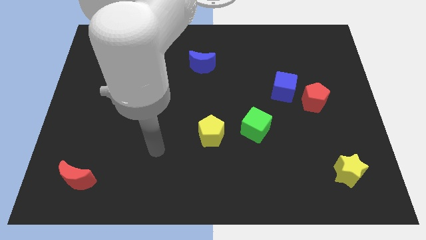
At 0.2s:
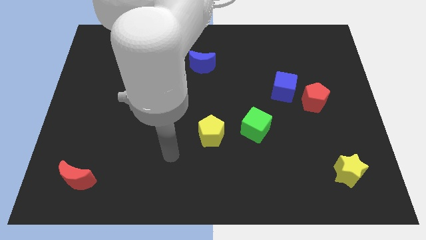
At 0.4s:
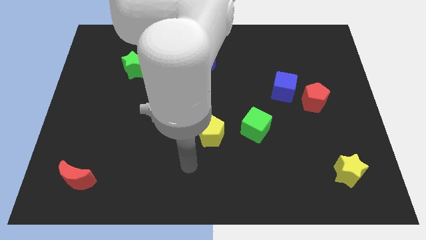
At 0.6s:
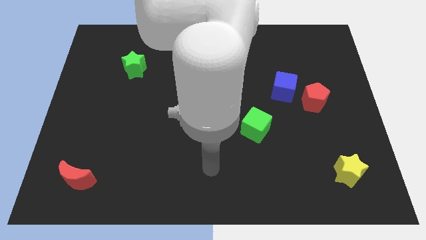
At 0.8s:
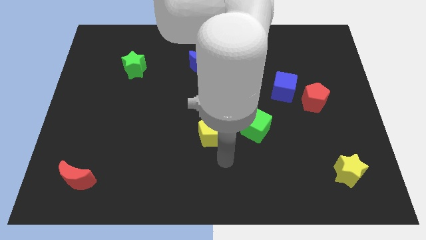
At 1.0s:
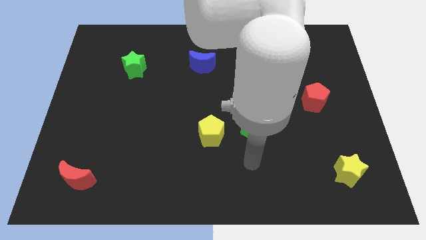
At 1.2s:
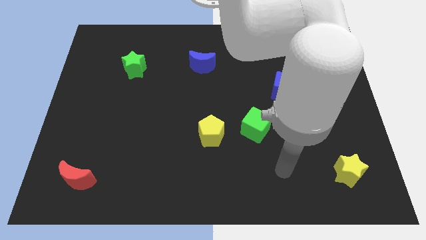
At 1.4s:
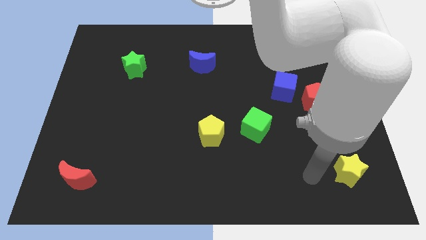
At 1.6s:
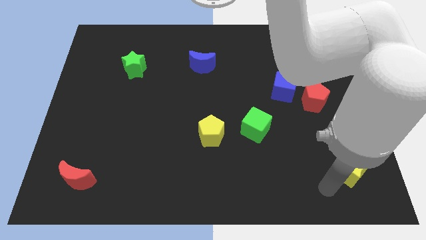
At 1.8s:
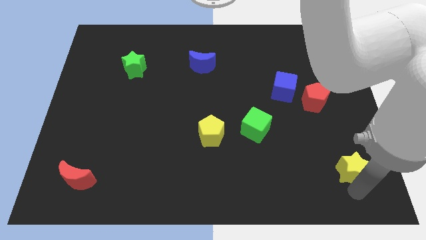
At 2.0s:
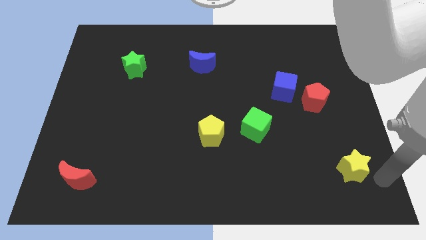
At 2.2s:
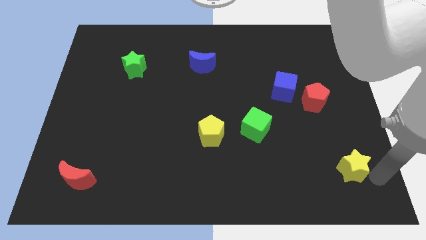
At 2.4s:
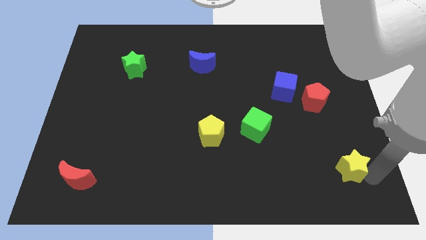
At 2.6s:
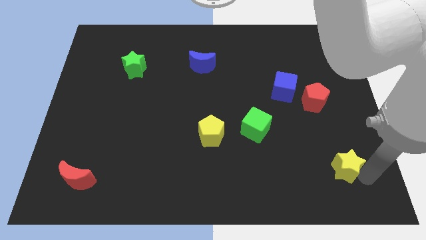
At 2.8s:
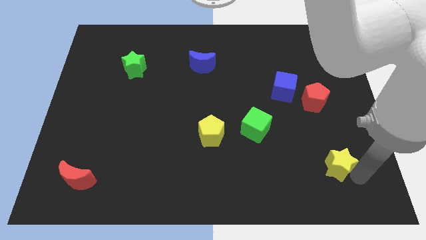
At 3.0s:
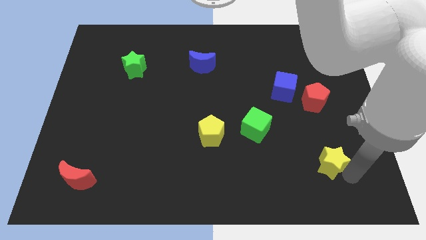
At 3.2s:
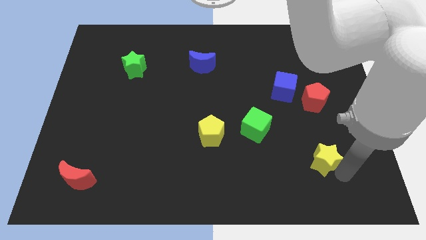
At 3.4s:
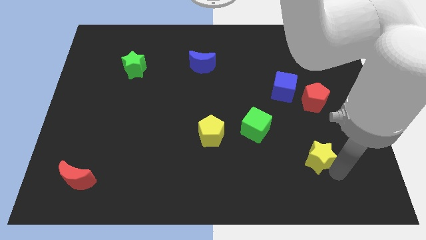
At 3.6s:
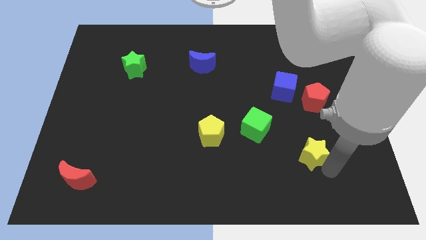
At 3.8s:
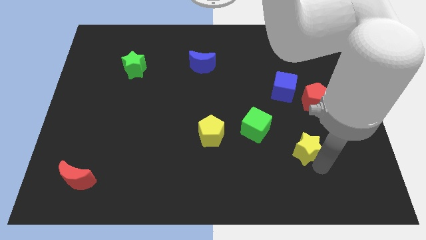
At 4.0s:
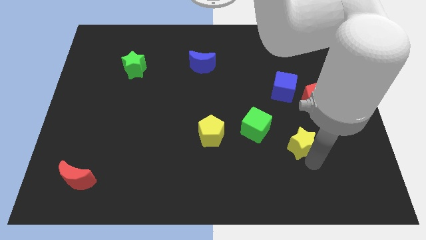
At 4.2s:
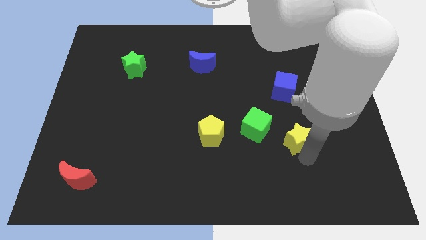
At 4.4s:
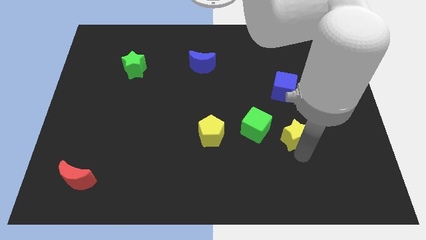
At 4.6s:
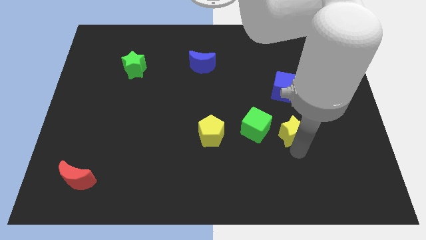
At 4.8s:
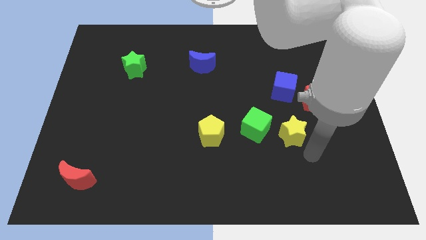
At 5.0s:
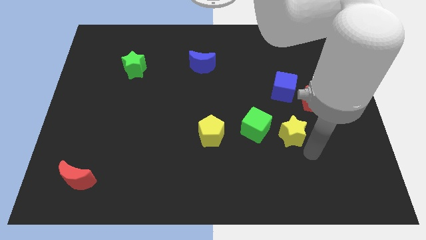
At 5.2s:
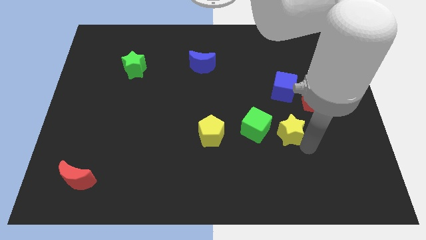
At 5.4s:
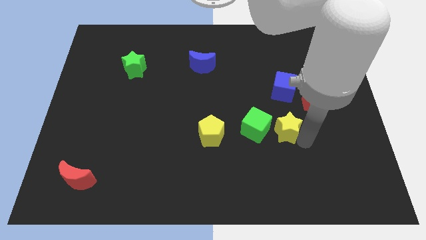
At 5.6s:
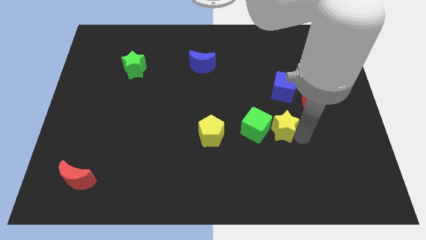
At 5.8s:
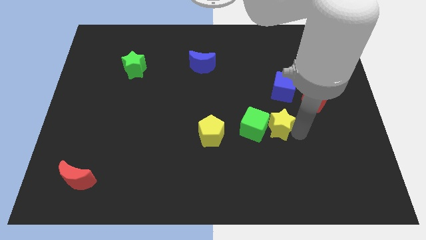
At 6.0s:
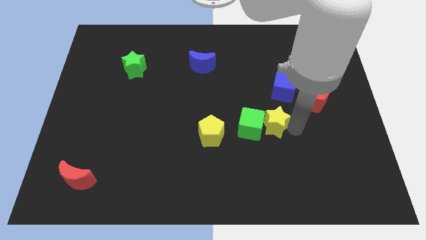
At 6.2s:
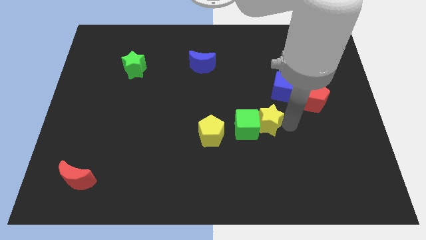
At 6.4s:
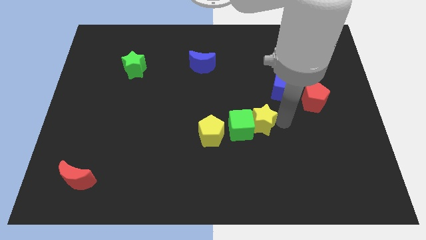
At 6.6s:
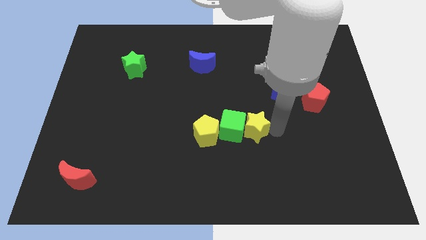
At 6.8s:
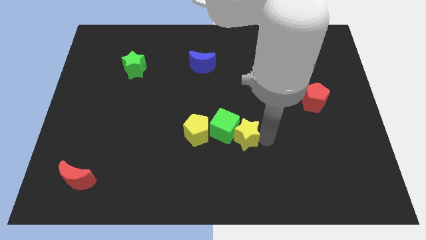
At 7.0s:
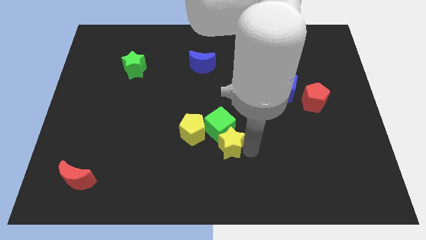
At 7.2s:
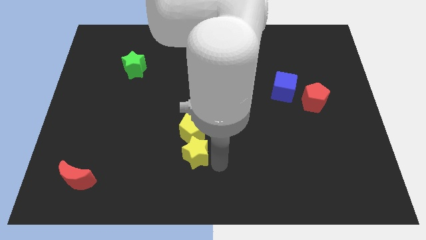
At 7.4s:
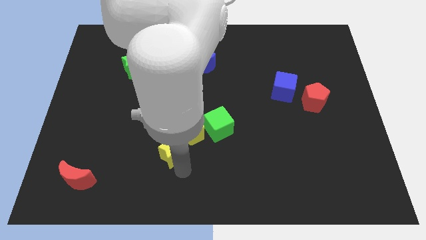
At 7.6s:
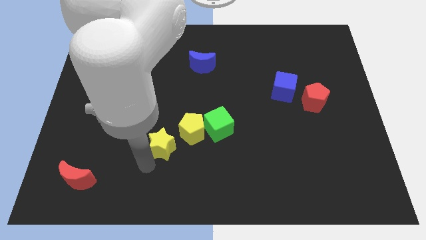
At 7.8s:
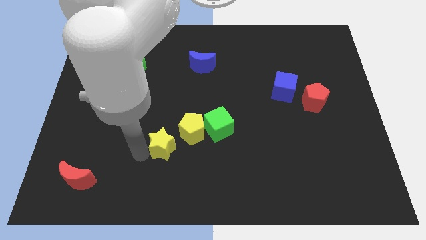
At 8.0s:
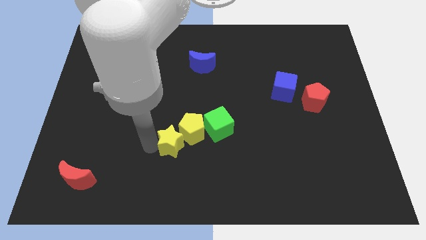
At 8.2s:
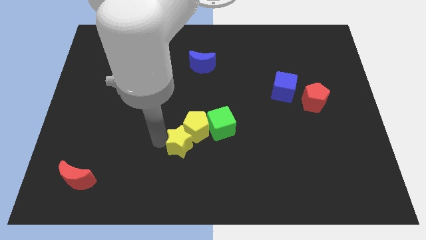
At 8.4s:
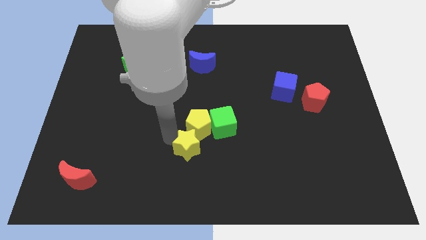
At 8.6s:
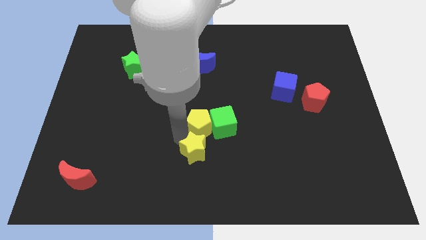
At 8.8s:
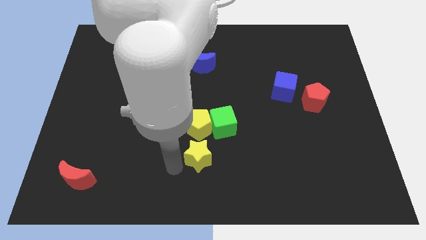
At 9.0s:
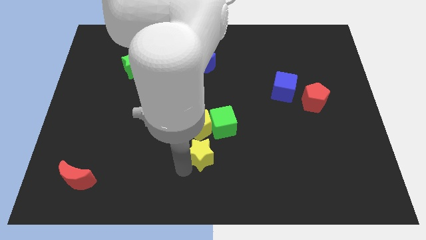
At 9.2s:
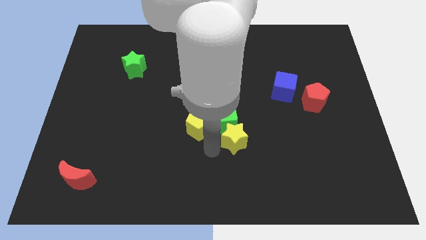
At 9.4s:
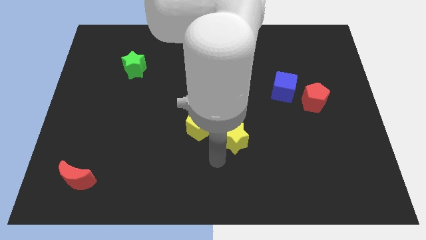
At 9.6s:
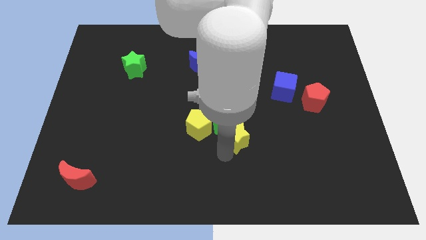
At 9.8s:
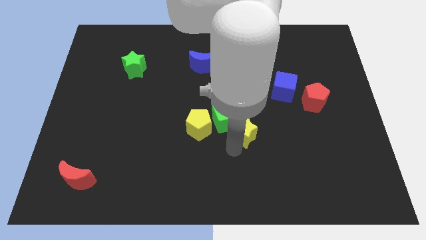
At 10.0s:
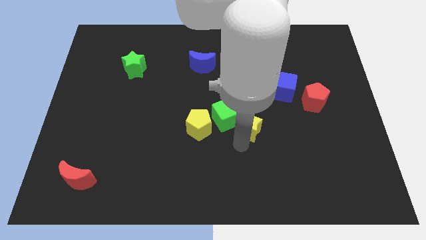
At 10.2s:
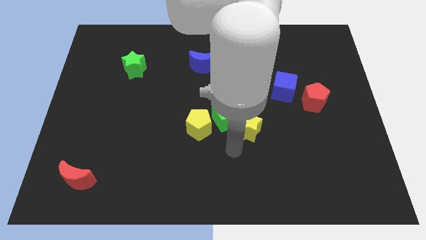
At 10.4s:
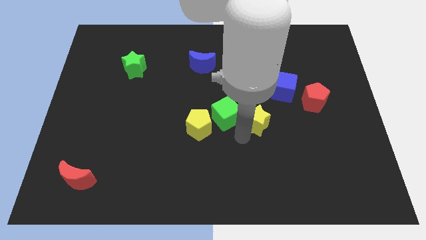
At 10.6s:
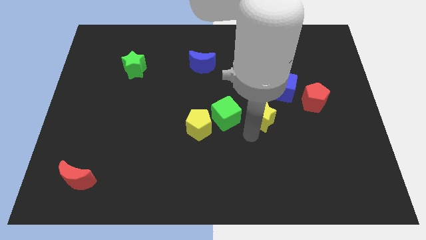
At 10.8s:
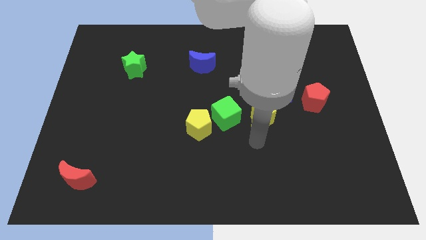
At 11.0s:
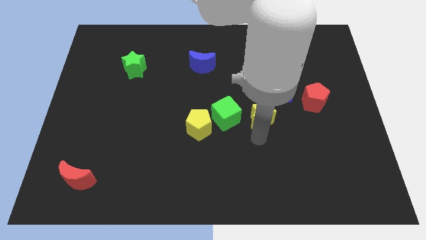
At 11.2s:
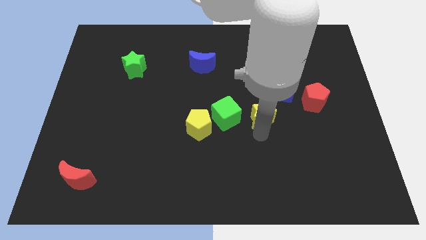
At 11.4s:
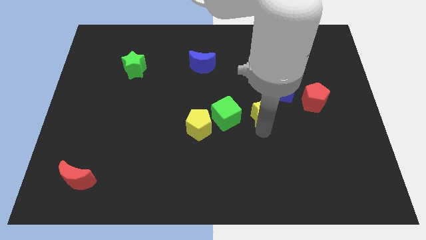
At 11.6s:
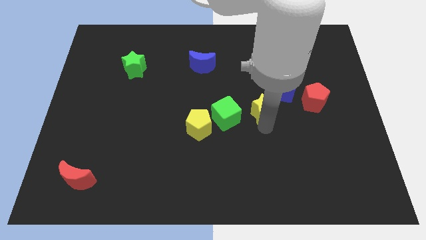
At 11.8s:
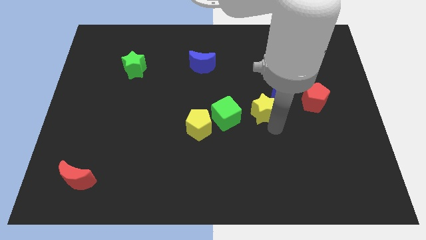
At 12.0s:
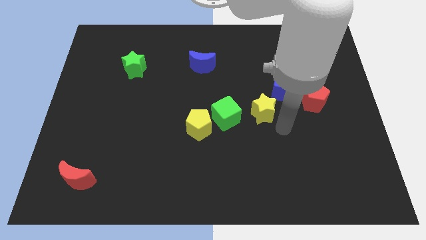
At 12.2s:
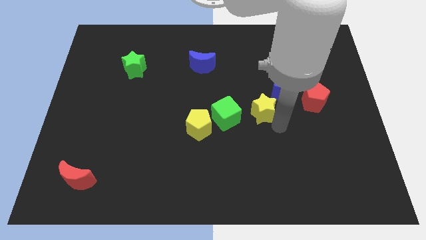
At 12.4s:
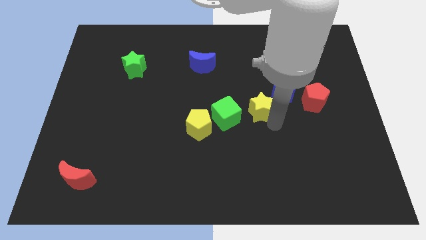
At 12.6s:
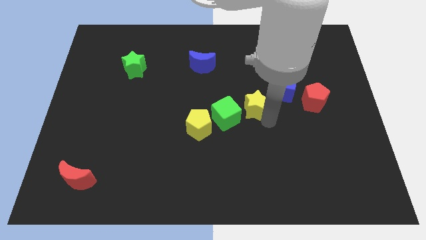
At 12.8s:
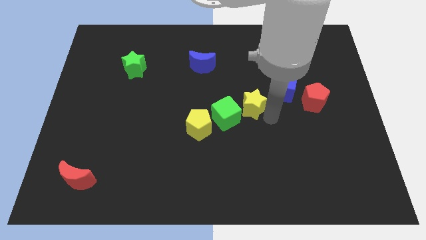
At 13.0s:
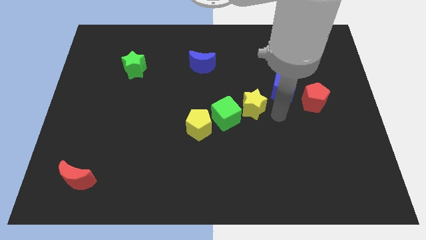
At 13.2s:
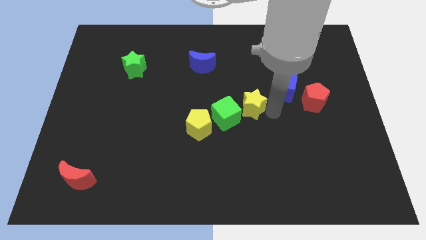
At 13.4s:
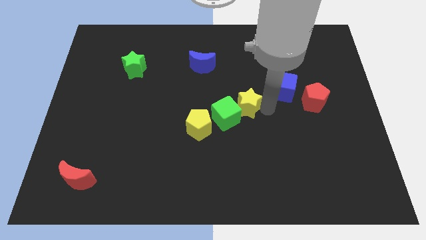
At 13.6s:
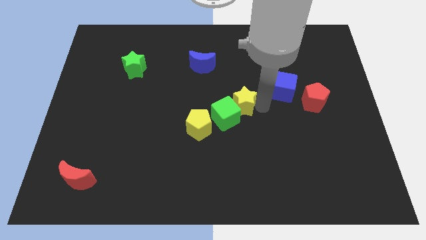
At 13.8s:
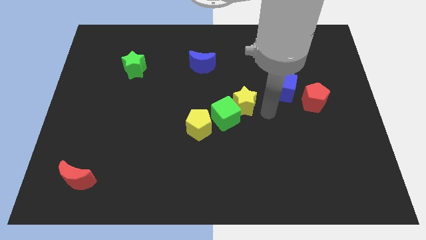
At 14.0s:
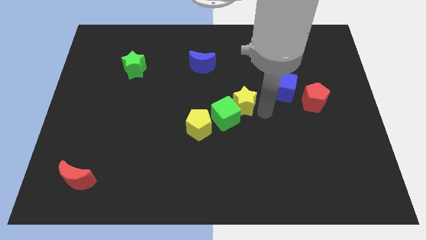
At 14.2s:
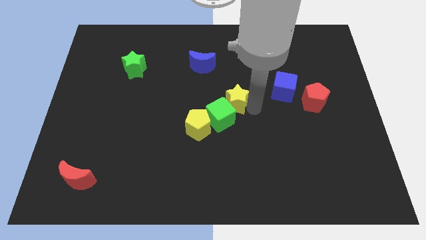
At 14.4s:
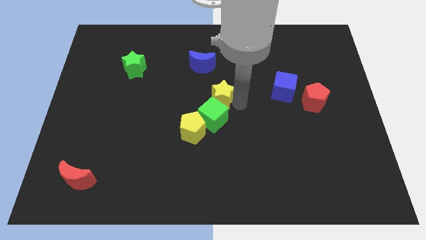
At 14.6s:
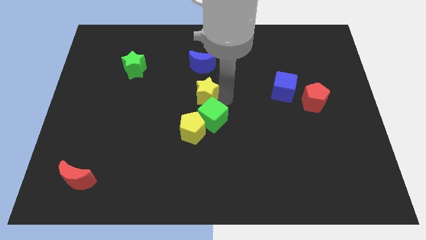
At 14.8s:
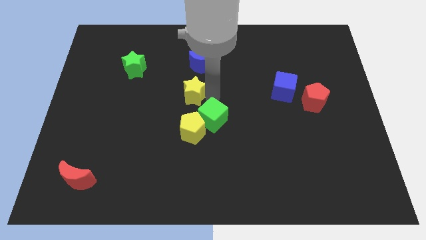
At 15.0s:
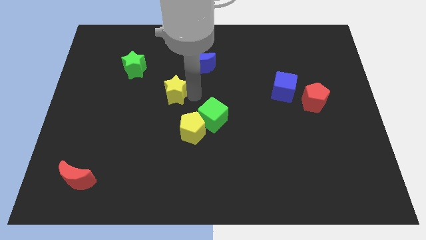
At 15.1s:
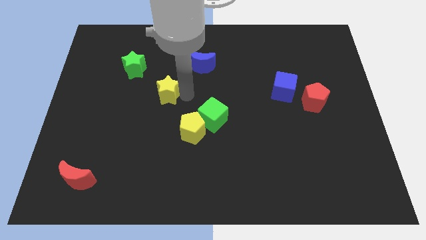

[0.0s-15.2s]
push the yellow star to the bottom right of the green star

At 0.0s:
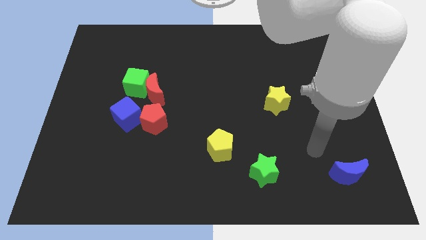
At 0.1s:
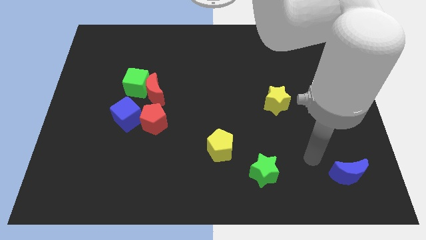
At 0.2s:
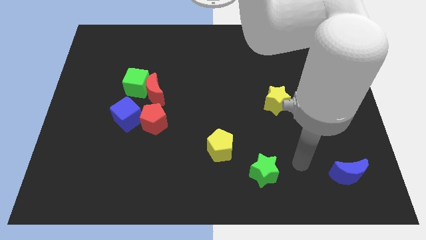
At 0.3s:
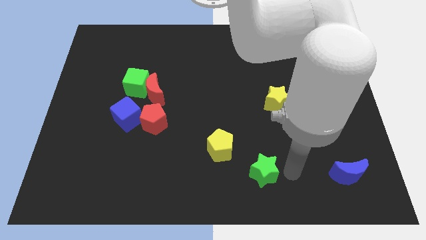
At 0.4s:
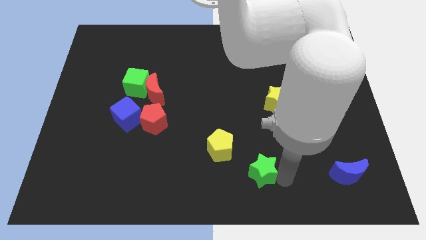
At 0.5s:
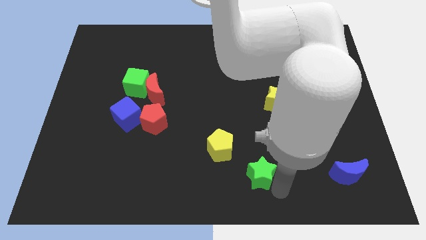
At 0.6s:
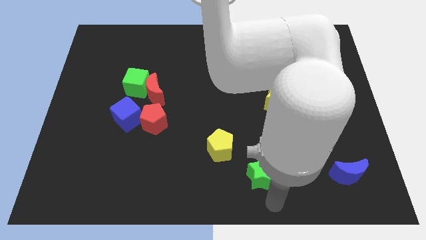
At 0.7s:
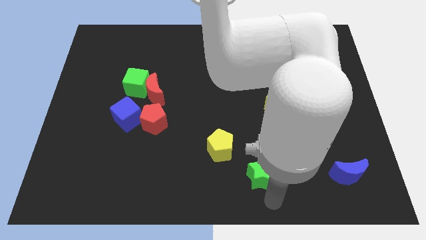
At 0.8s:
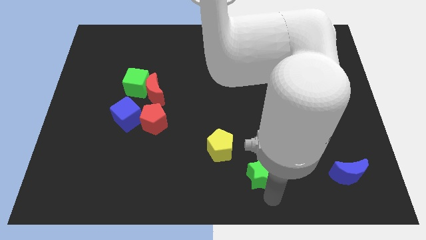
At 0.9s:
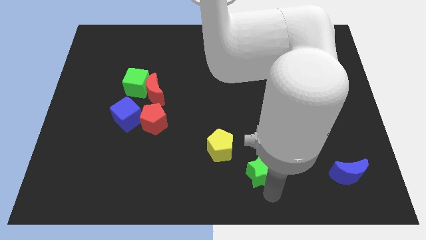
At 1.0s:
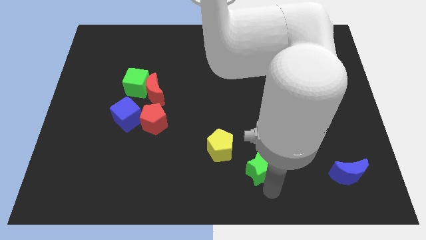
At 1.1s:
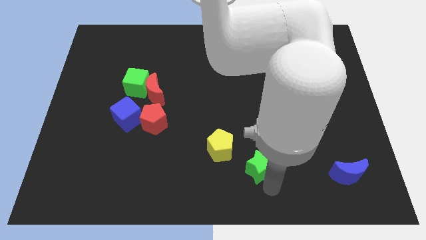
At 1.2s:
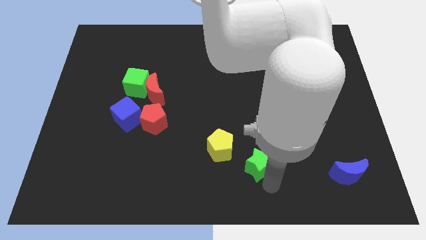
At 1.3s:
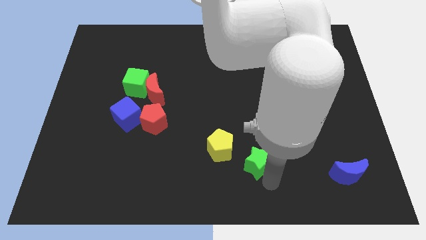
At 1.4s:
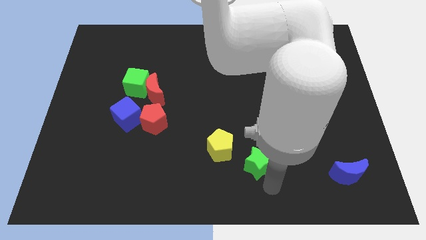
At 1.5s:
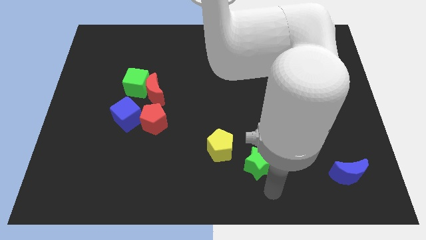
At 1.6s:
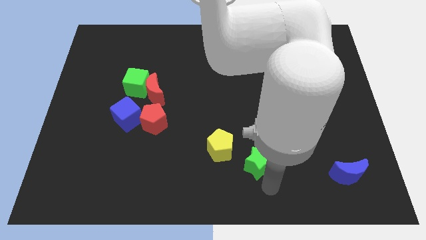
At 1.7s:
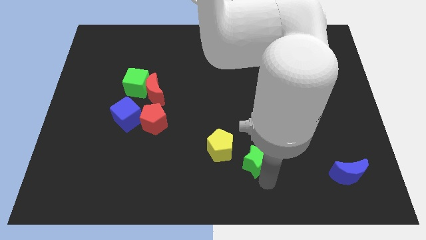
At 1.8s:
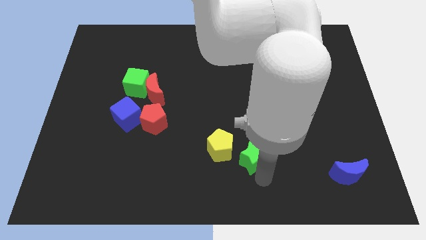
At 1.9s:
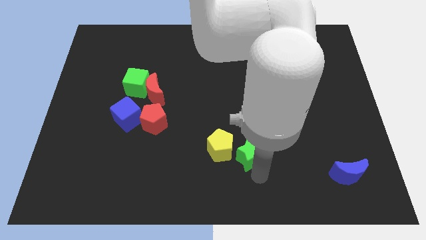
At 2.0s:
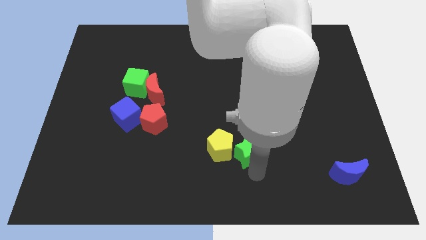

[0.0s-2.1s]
slide the green star to the top right of the yellow pentagon
